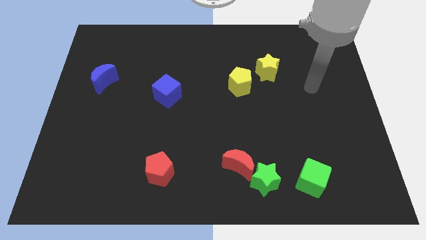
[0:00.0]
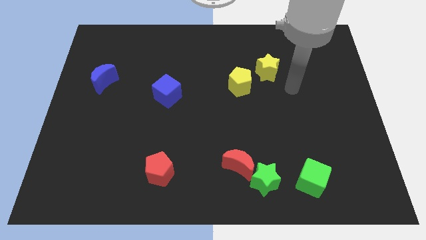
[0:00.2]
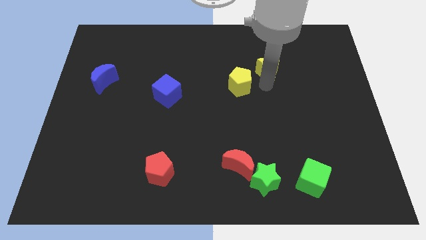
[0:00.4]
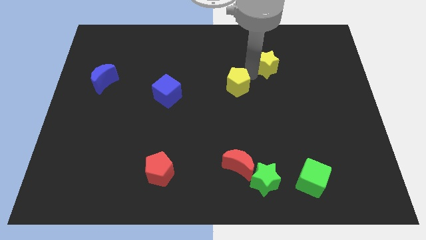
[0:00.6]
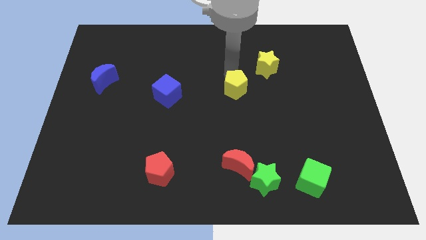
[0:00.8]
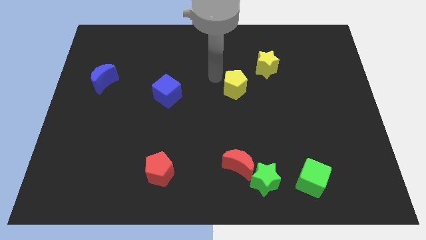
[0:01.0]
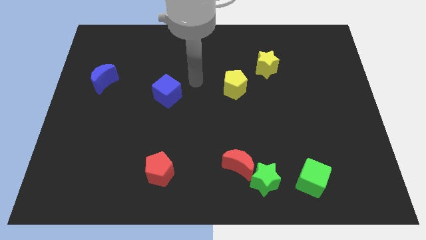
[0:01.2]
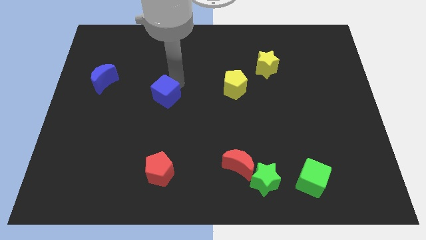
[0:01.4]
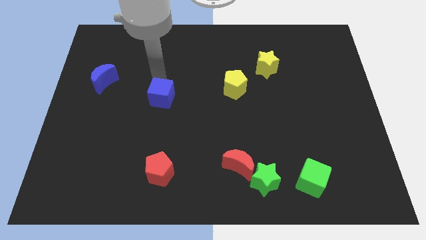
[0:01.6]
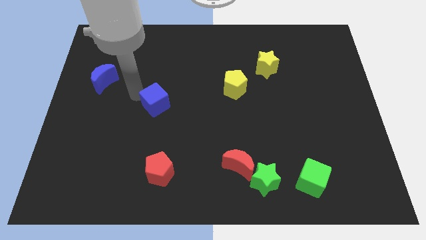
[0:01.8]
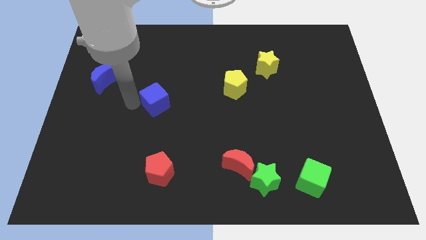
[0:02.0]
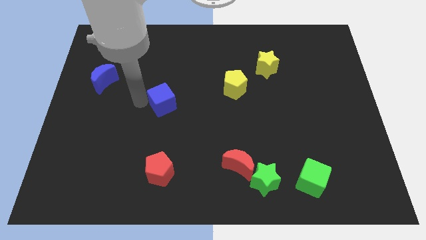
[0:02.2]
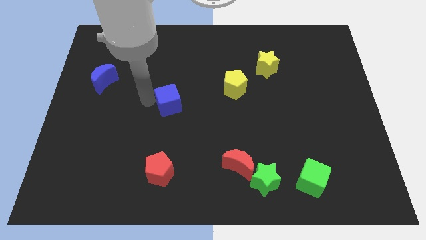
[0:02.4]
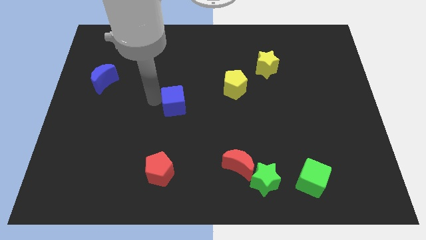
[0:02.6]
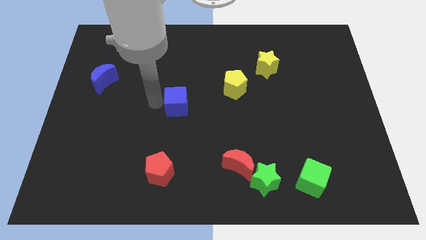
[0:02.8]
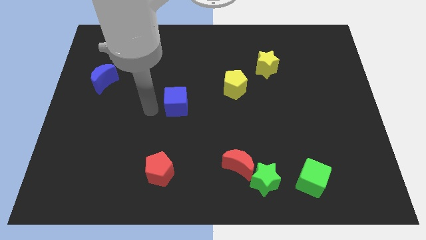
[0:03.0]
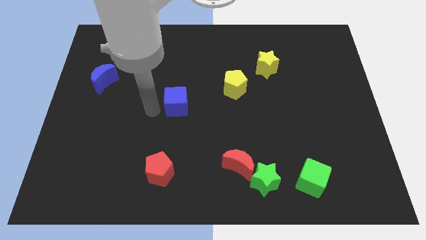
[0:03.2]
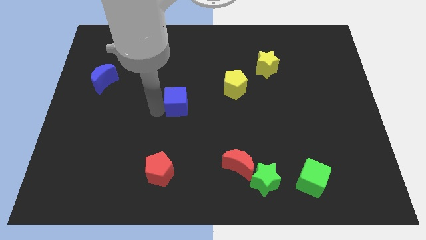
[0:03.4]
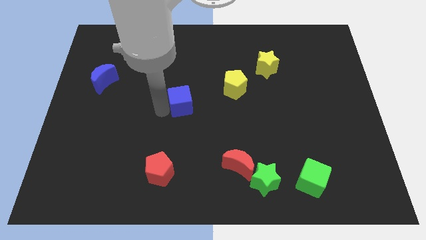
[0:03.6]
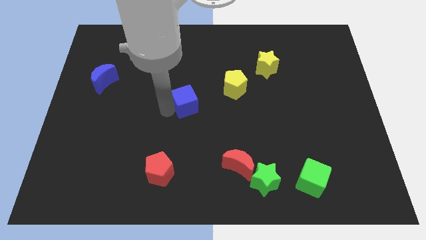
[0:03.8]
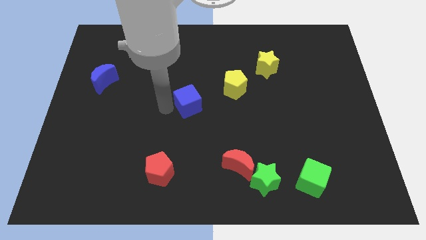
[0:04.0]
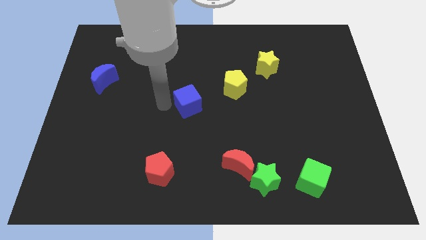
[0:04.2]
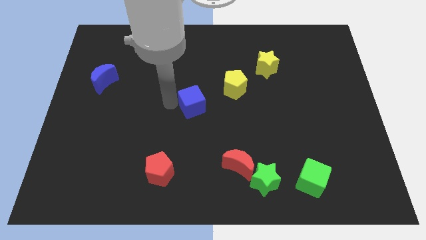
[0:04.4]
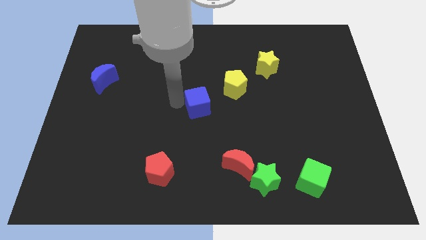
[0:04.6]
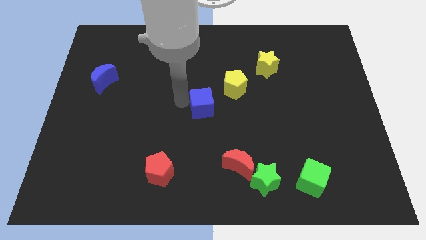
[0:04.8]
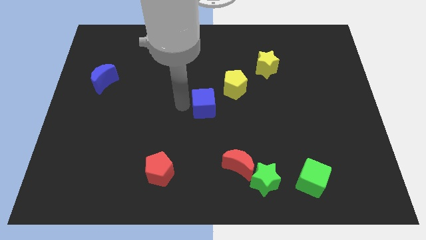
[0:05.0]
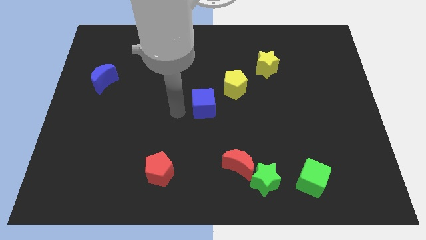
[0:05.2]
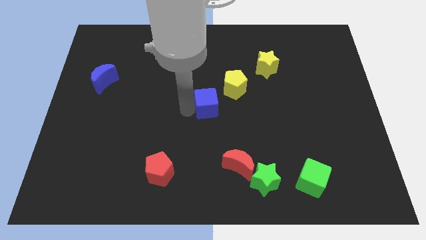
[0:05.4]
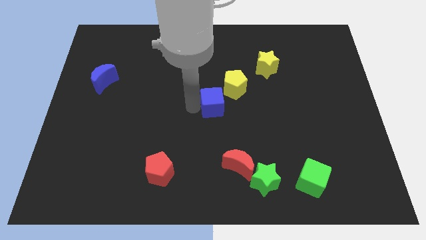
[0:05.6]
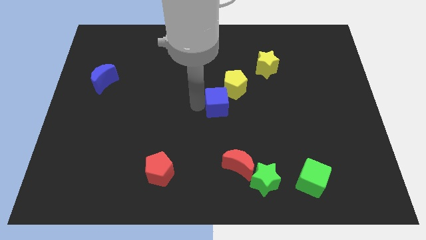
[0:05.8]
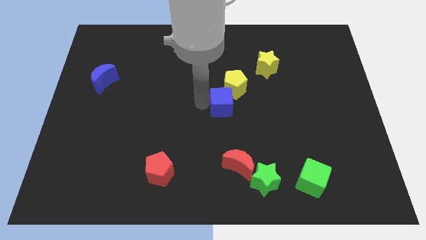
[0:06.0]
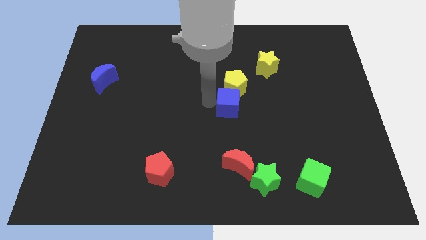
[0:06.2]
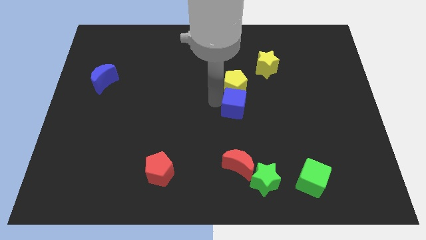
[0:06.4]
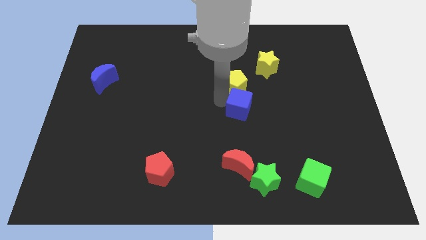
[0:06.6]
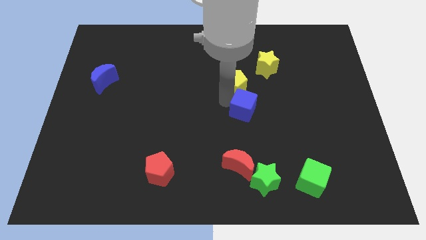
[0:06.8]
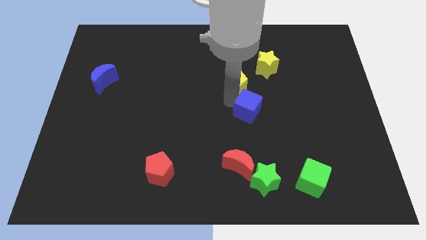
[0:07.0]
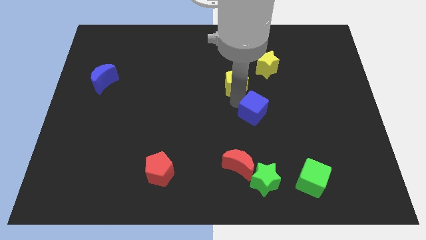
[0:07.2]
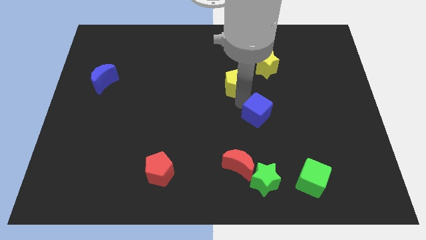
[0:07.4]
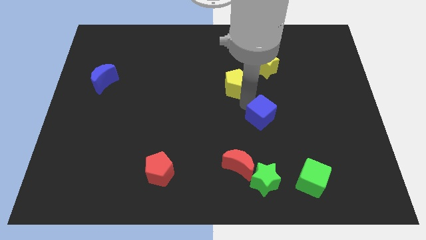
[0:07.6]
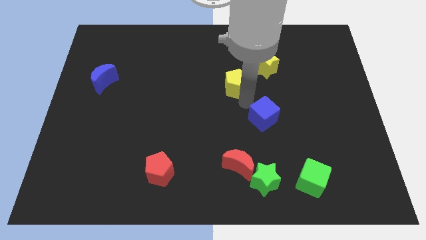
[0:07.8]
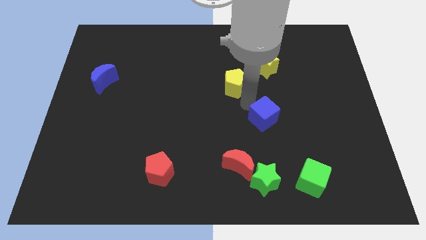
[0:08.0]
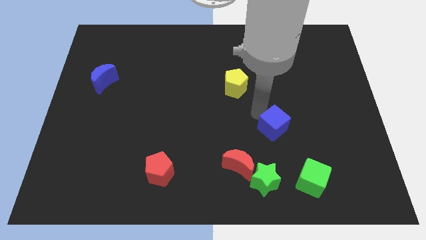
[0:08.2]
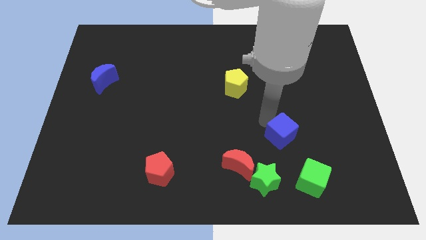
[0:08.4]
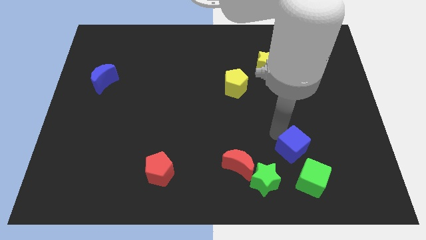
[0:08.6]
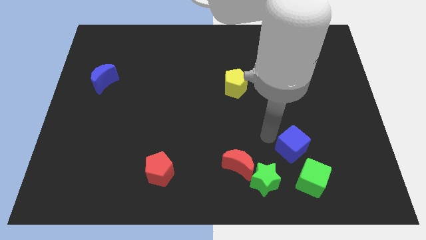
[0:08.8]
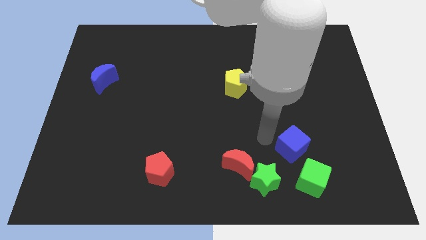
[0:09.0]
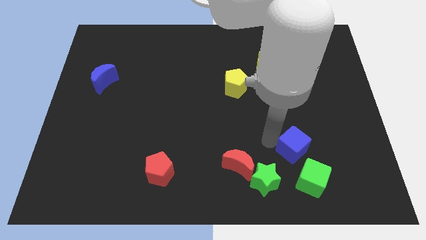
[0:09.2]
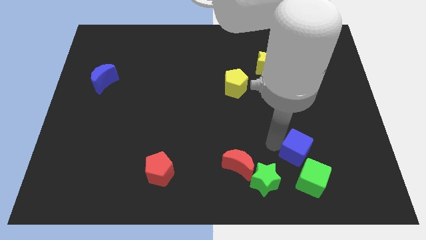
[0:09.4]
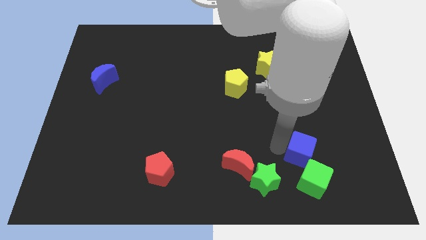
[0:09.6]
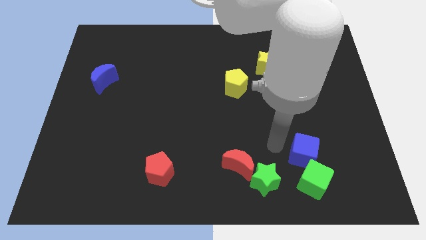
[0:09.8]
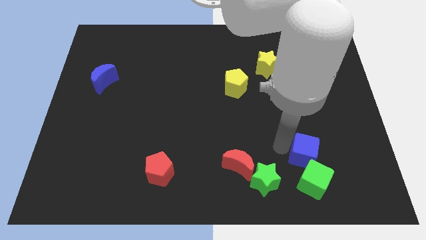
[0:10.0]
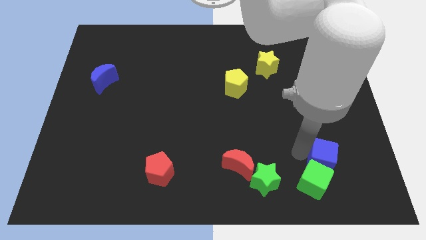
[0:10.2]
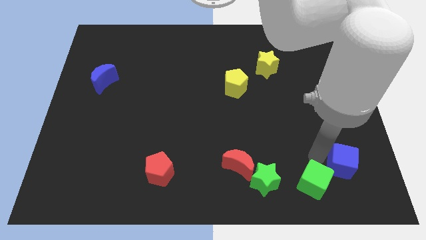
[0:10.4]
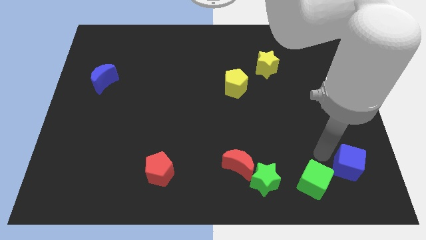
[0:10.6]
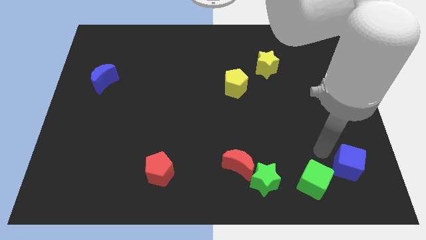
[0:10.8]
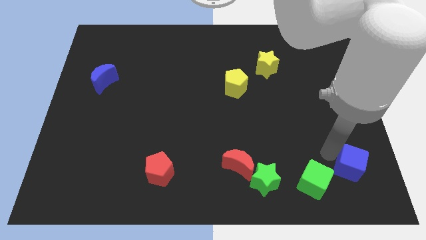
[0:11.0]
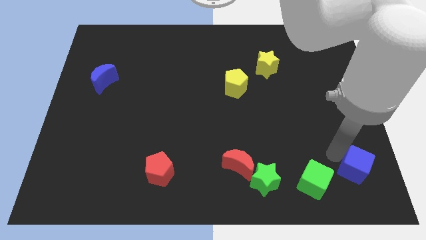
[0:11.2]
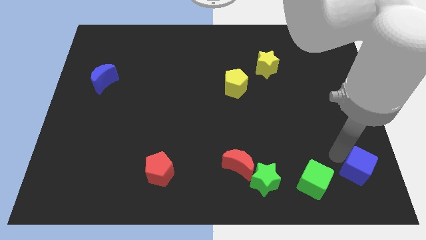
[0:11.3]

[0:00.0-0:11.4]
move the blue cube to the bottom right of the board

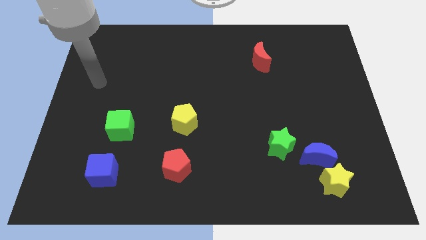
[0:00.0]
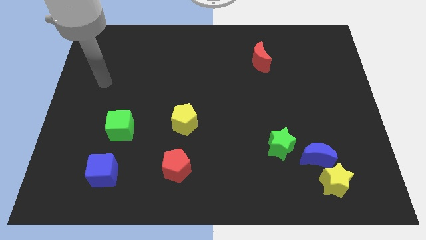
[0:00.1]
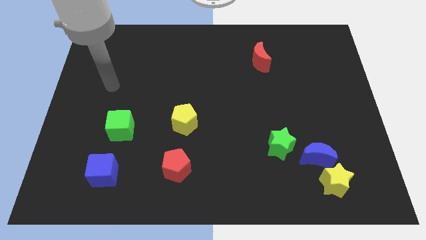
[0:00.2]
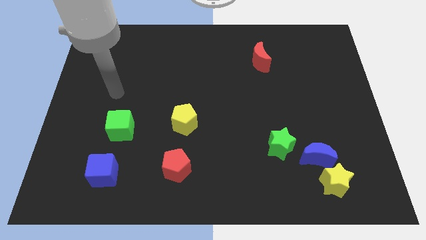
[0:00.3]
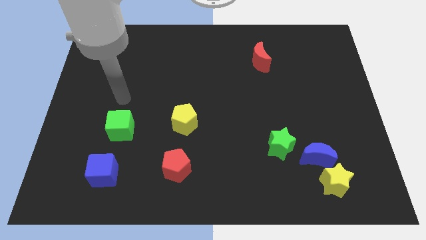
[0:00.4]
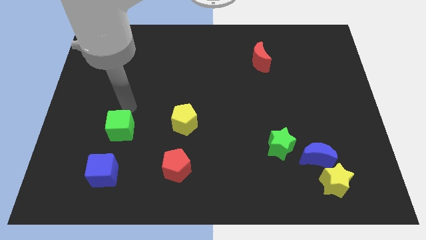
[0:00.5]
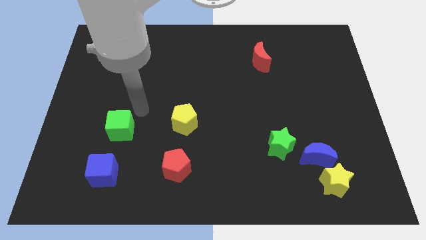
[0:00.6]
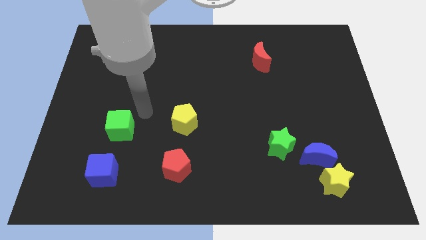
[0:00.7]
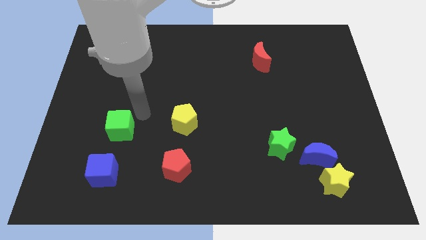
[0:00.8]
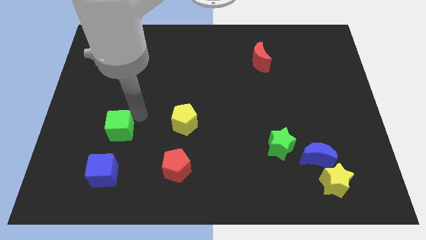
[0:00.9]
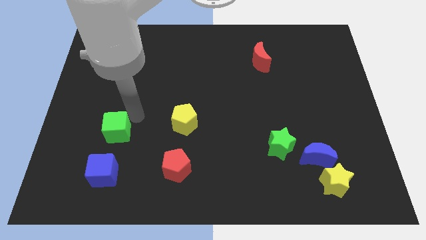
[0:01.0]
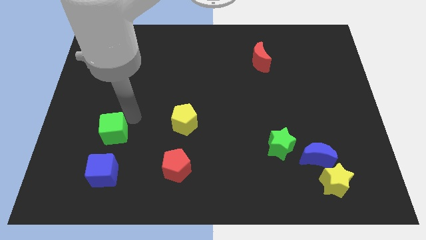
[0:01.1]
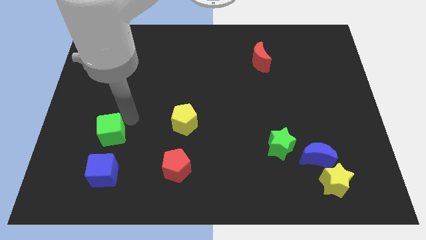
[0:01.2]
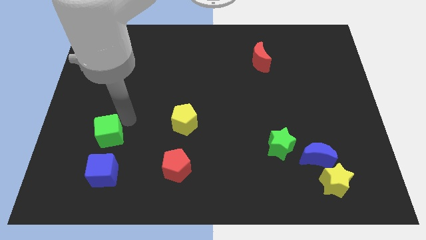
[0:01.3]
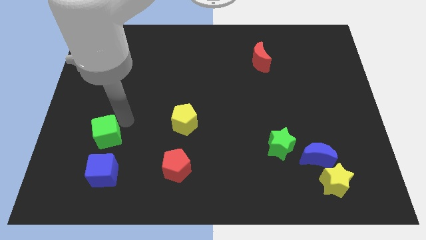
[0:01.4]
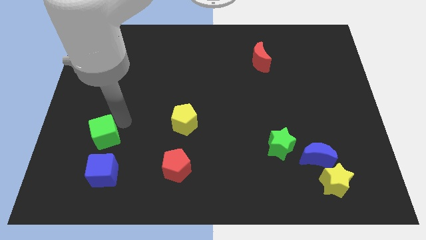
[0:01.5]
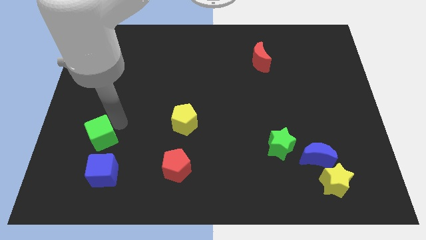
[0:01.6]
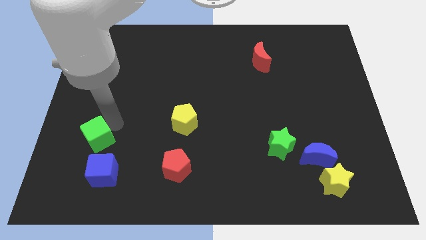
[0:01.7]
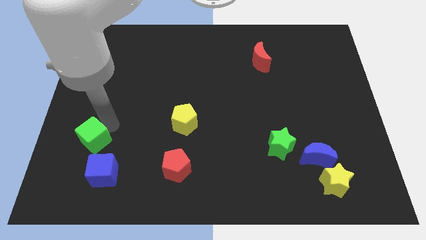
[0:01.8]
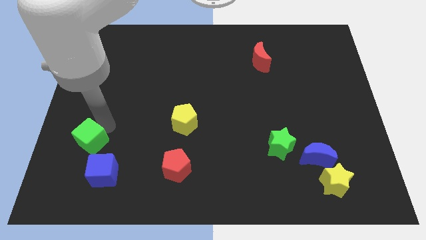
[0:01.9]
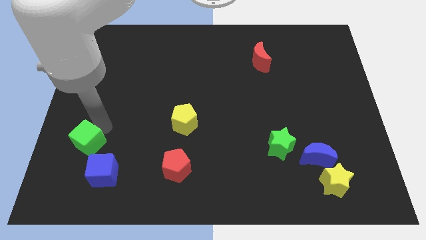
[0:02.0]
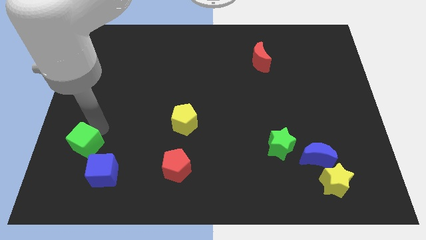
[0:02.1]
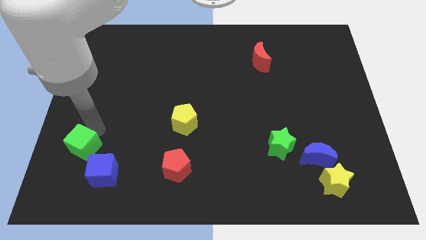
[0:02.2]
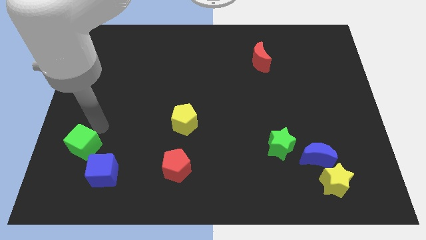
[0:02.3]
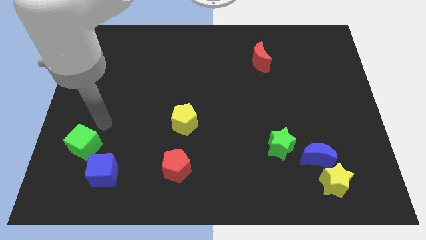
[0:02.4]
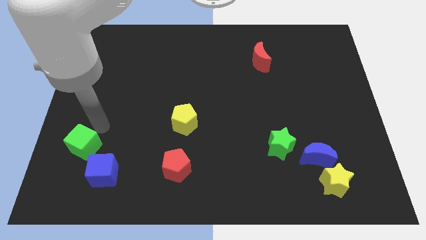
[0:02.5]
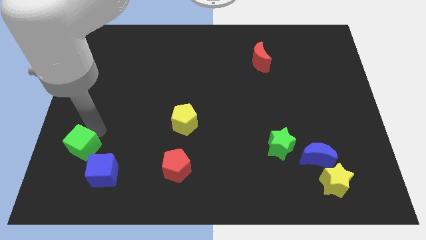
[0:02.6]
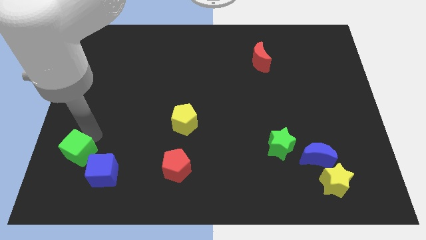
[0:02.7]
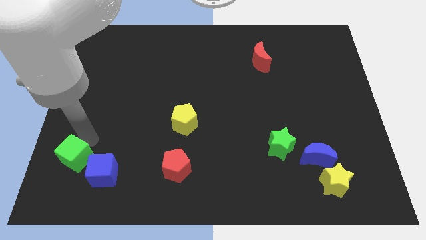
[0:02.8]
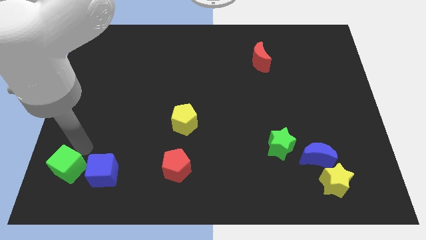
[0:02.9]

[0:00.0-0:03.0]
push the green cube to the bottom left corner
